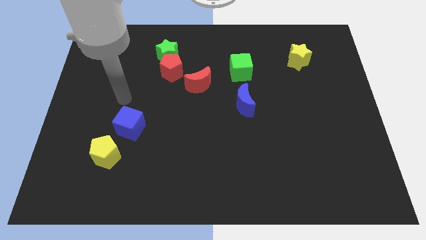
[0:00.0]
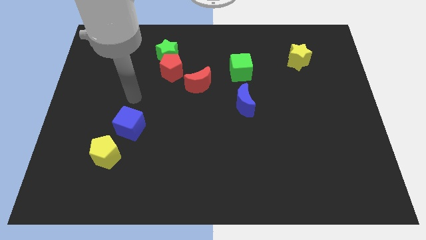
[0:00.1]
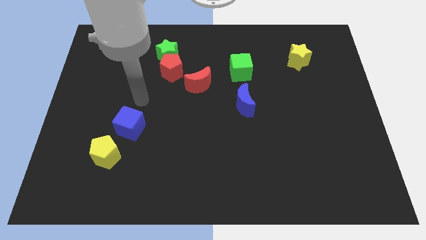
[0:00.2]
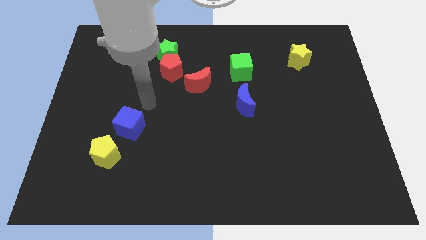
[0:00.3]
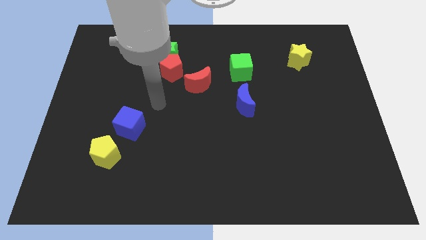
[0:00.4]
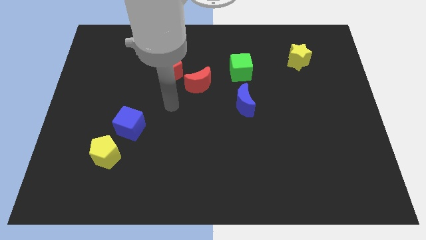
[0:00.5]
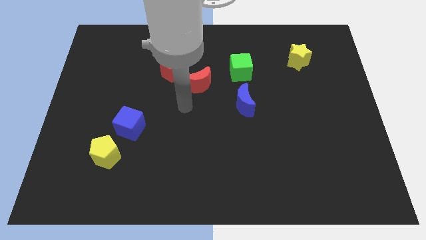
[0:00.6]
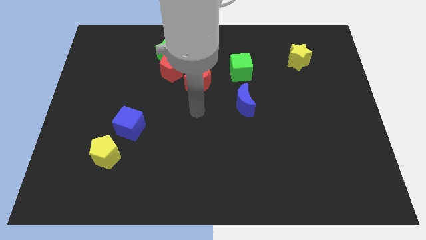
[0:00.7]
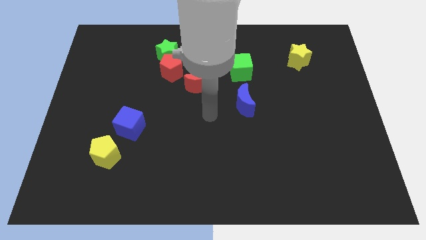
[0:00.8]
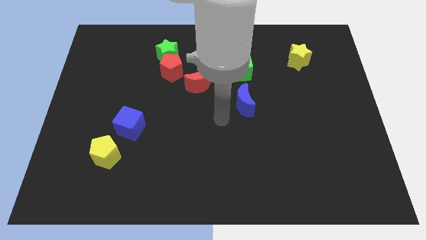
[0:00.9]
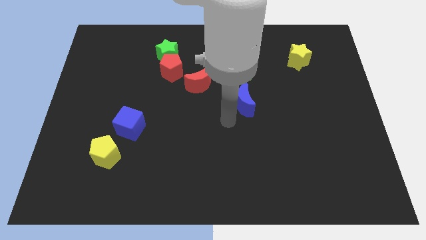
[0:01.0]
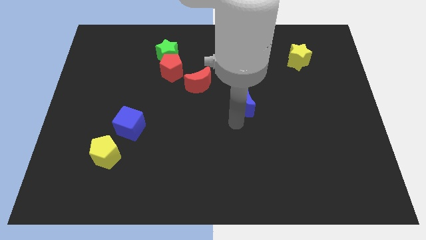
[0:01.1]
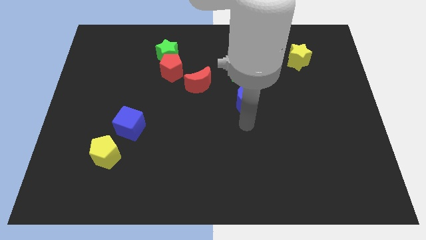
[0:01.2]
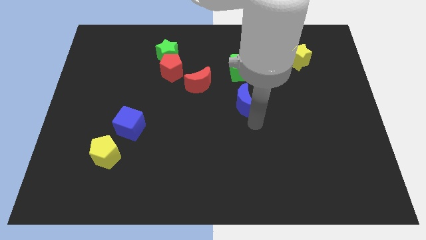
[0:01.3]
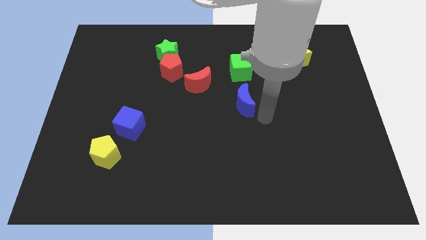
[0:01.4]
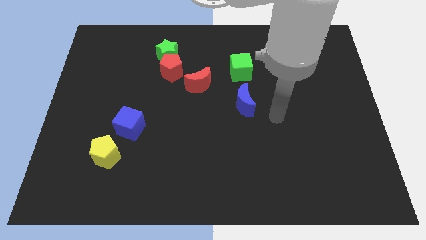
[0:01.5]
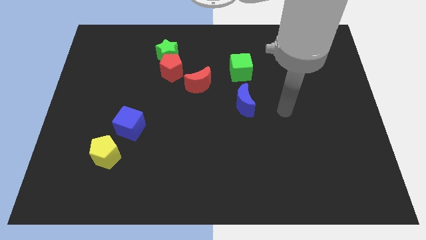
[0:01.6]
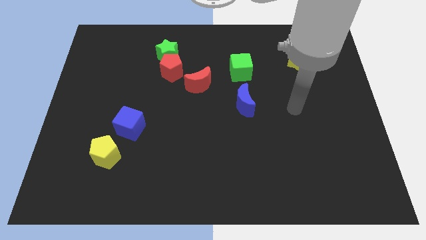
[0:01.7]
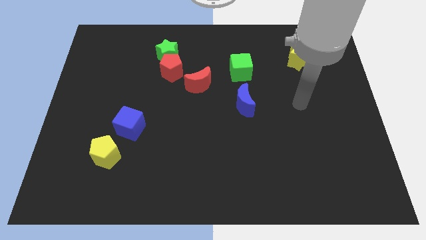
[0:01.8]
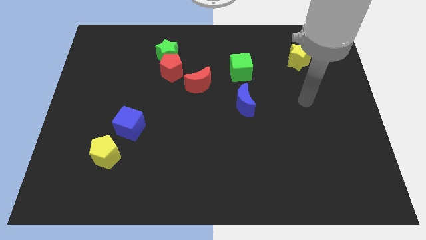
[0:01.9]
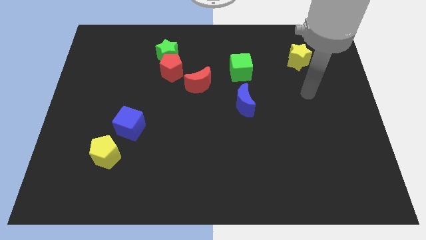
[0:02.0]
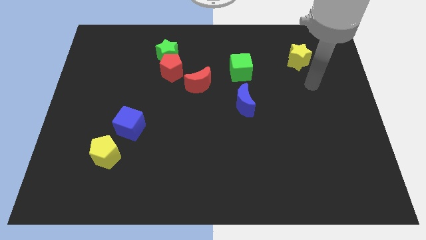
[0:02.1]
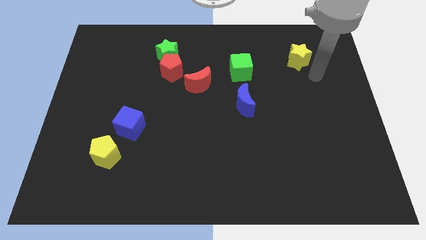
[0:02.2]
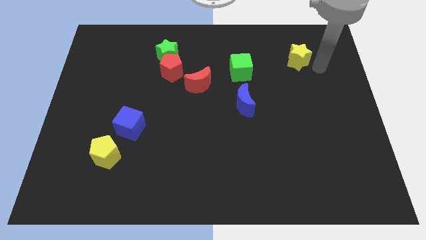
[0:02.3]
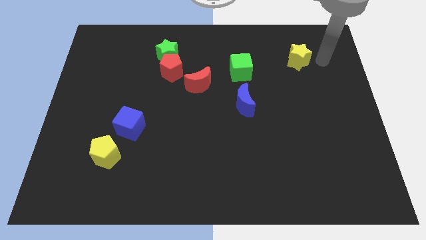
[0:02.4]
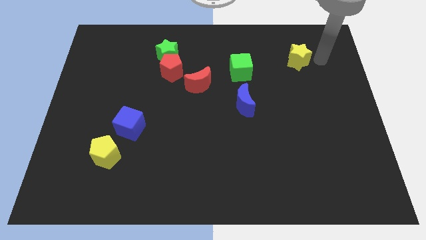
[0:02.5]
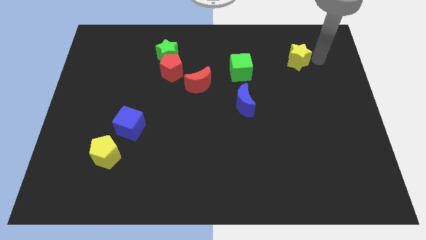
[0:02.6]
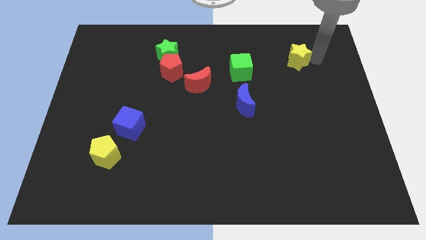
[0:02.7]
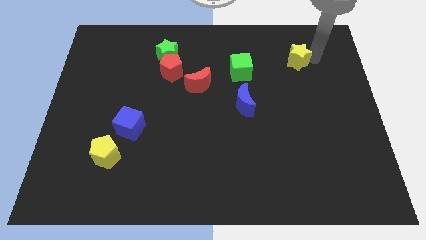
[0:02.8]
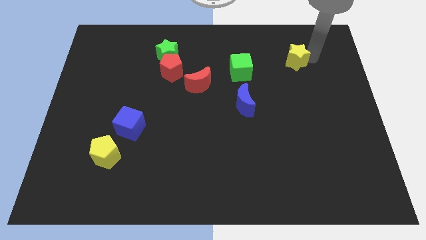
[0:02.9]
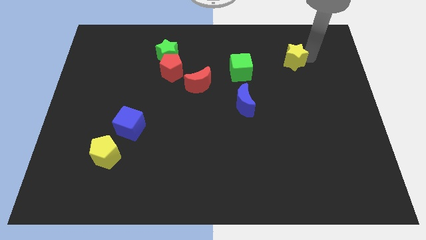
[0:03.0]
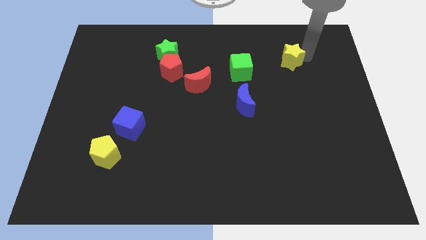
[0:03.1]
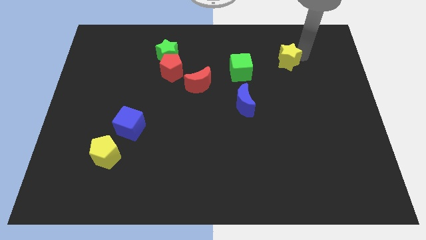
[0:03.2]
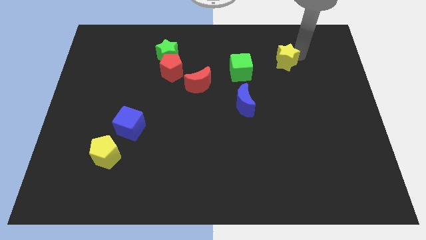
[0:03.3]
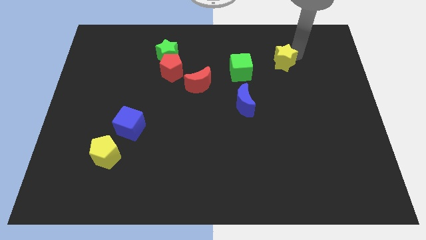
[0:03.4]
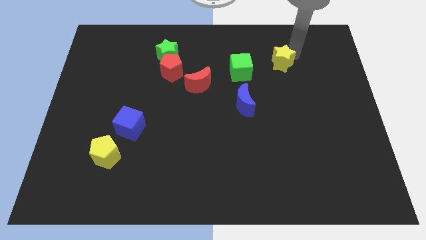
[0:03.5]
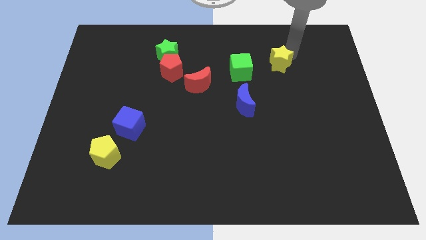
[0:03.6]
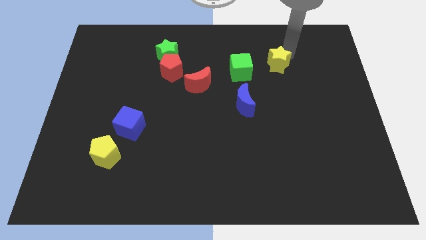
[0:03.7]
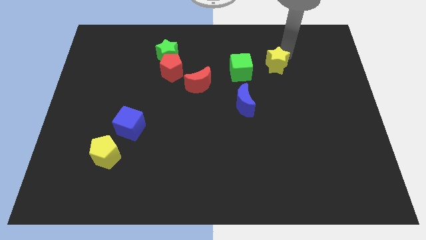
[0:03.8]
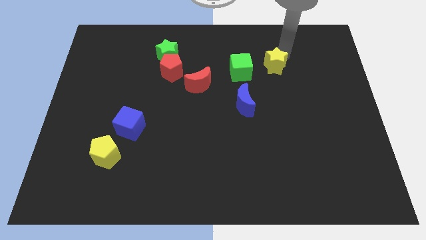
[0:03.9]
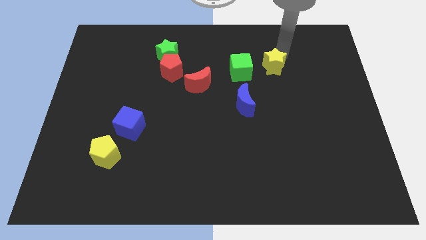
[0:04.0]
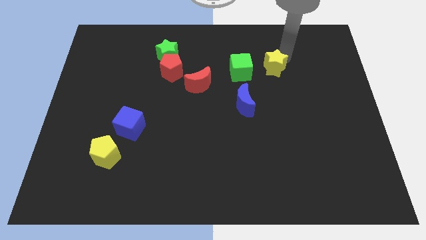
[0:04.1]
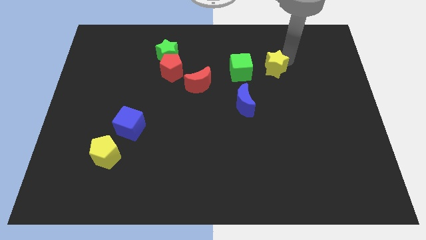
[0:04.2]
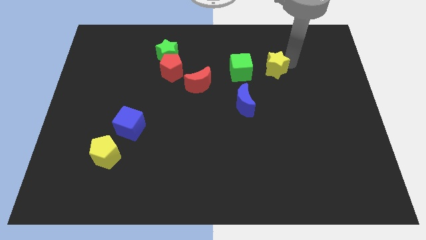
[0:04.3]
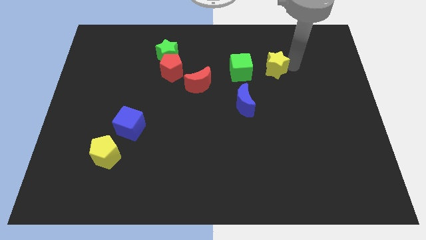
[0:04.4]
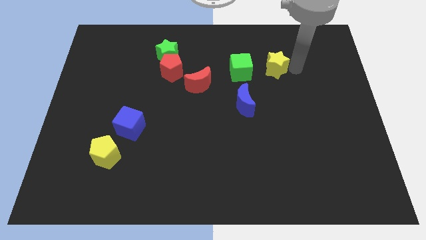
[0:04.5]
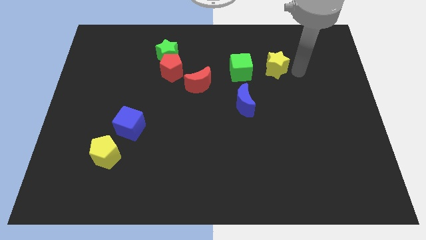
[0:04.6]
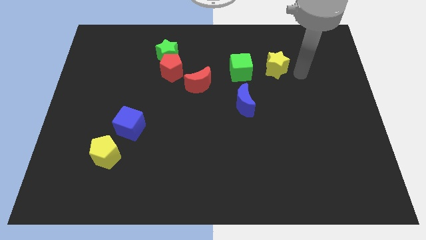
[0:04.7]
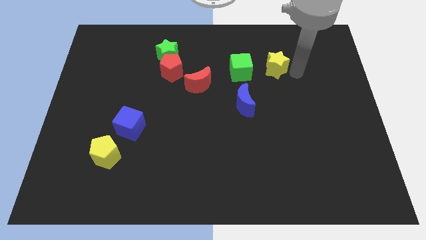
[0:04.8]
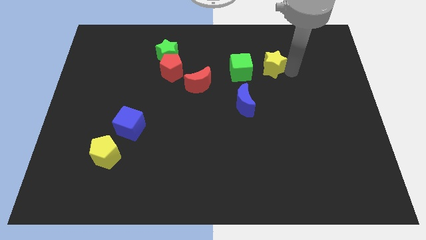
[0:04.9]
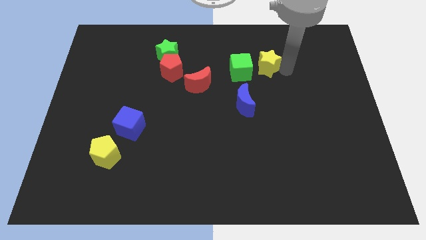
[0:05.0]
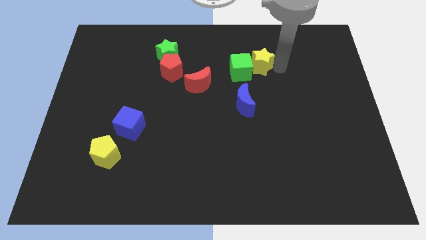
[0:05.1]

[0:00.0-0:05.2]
move the yellow star to the green cube

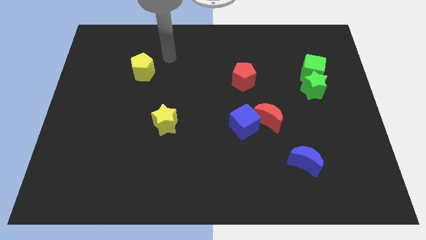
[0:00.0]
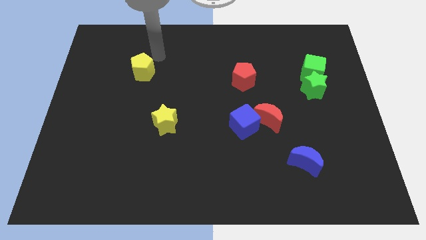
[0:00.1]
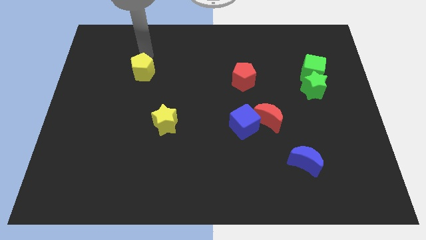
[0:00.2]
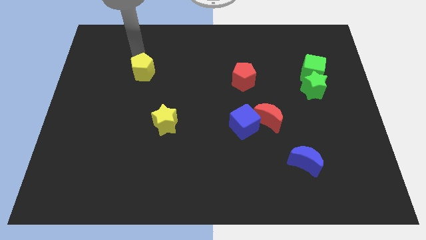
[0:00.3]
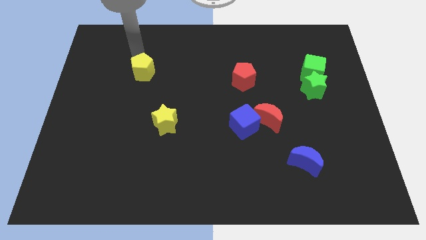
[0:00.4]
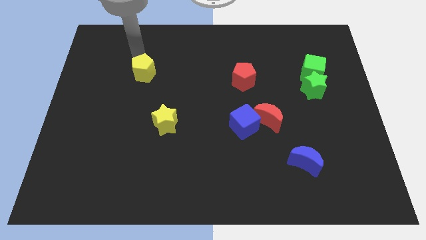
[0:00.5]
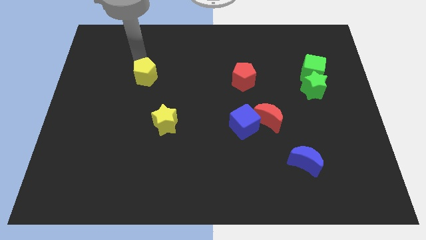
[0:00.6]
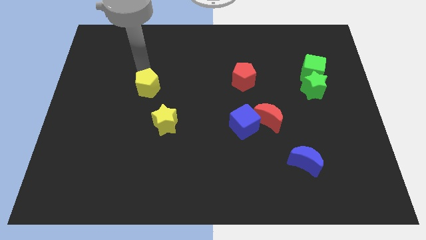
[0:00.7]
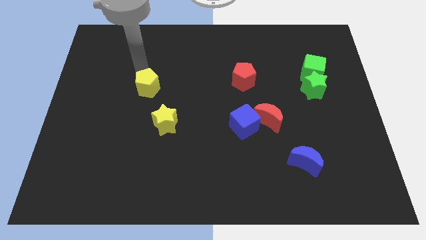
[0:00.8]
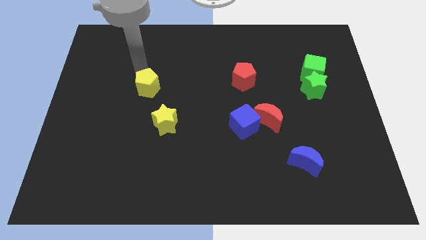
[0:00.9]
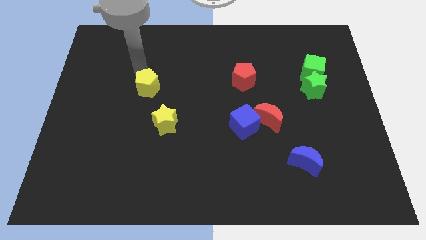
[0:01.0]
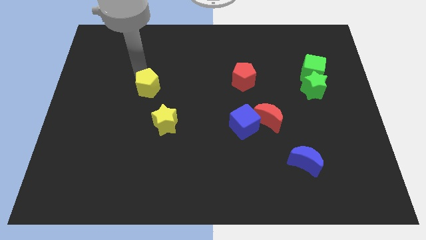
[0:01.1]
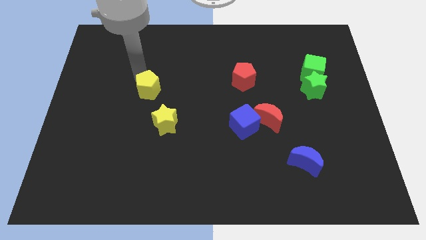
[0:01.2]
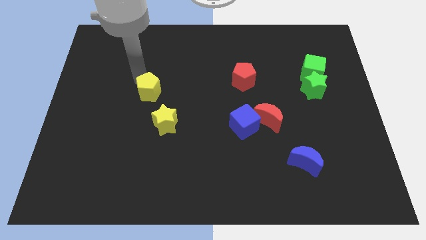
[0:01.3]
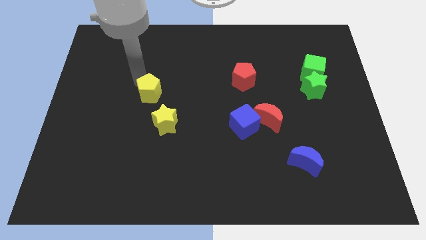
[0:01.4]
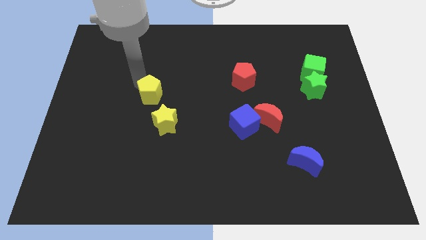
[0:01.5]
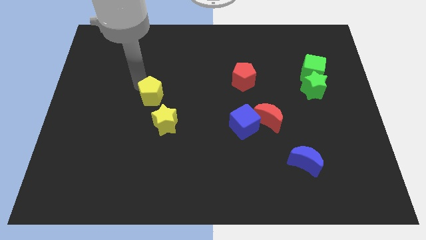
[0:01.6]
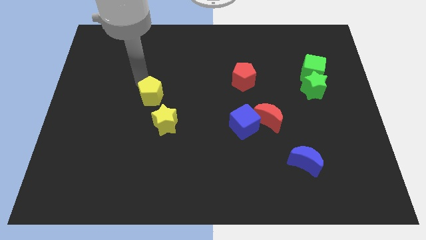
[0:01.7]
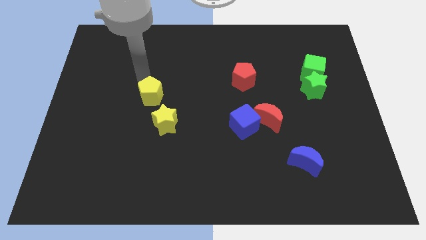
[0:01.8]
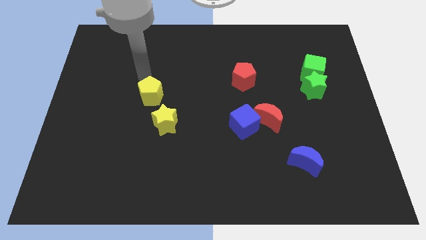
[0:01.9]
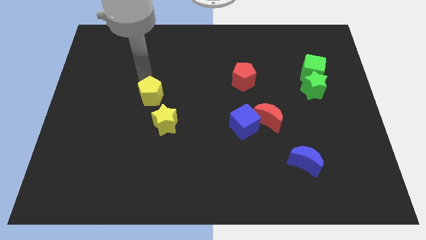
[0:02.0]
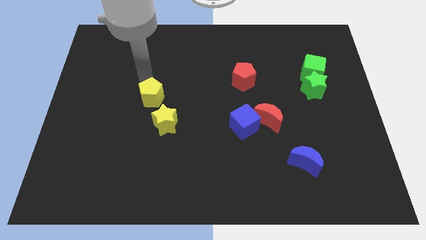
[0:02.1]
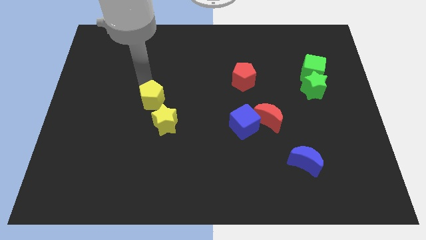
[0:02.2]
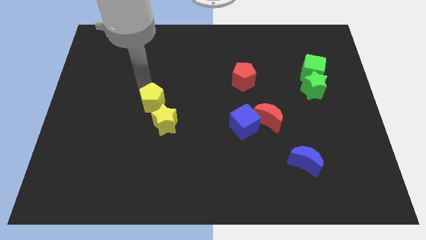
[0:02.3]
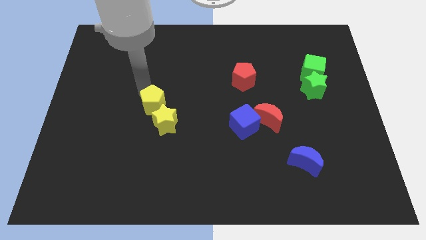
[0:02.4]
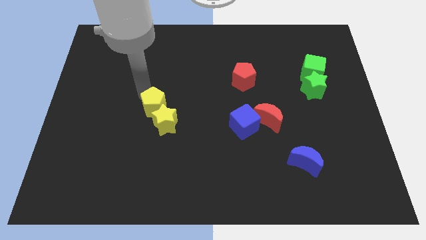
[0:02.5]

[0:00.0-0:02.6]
slide the yellow pentagon towards the yellow star
